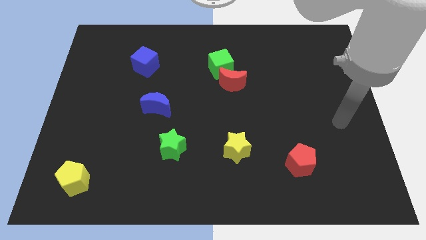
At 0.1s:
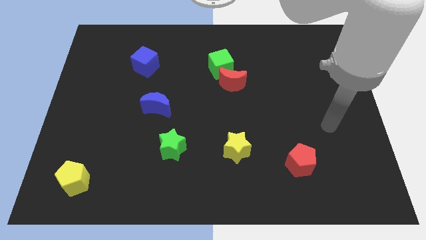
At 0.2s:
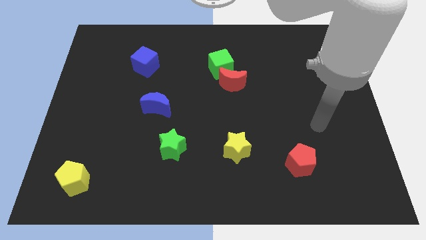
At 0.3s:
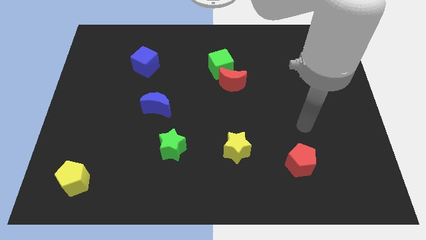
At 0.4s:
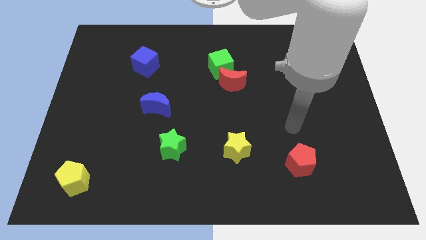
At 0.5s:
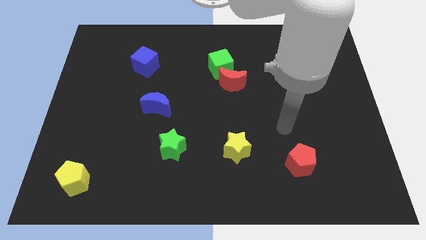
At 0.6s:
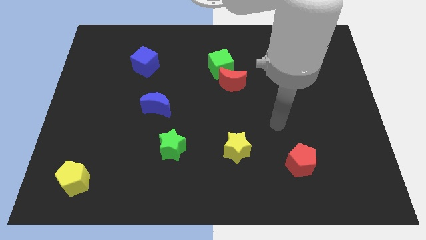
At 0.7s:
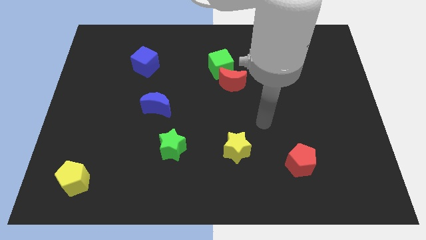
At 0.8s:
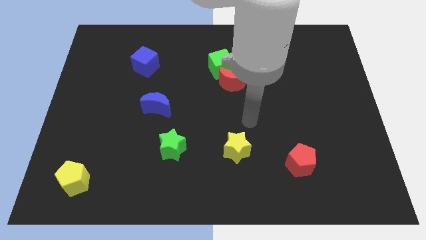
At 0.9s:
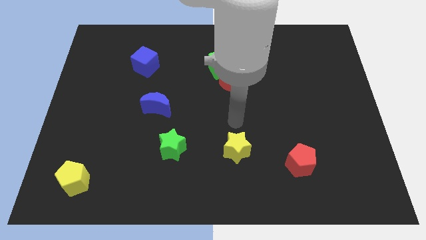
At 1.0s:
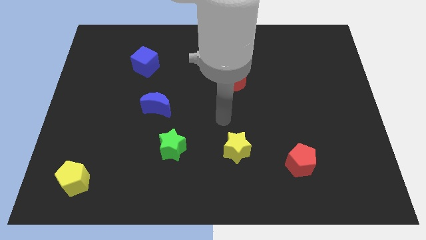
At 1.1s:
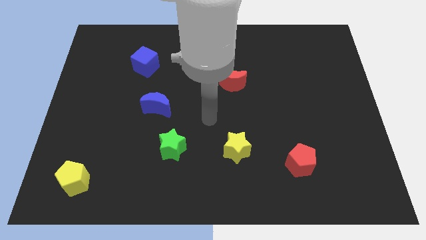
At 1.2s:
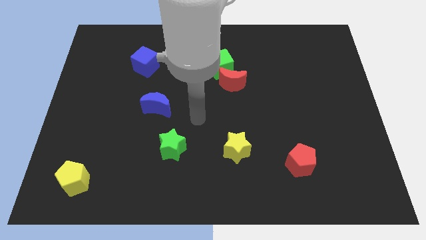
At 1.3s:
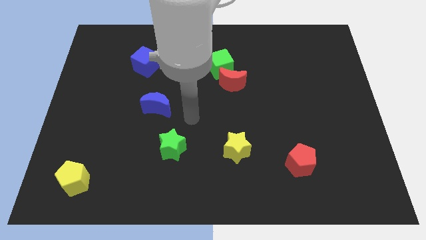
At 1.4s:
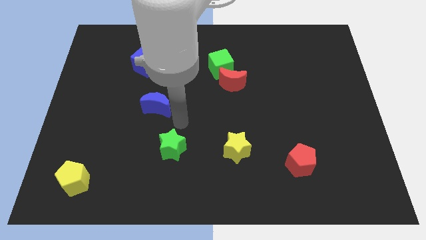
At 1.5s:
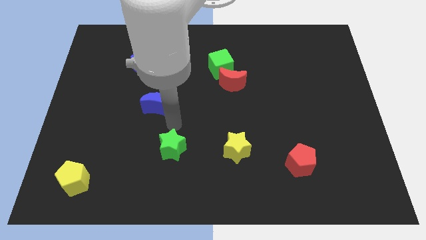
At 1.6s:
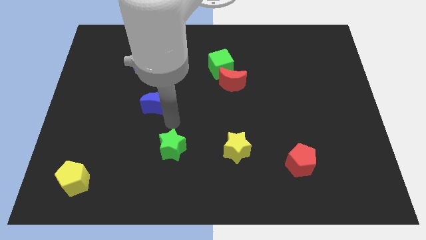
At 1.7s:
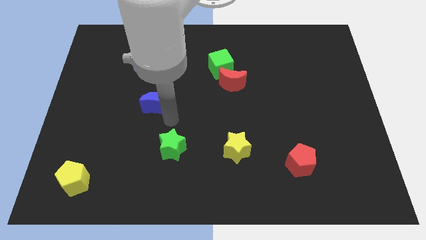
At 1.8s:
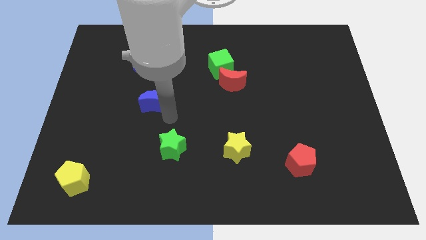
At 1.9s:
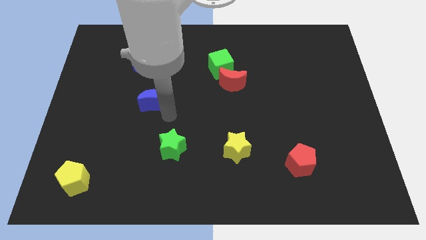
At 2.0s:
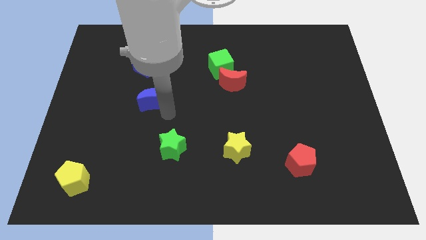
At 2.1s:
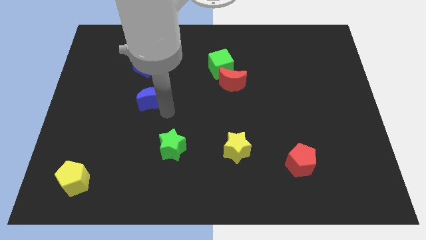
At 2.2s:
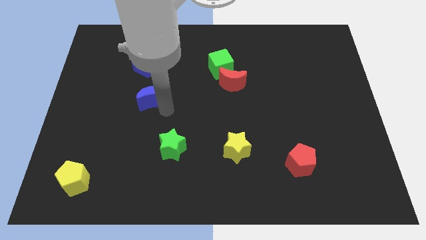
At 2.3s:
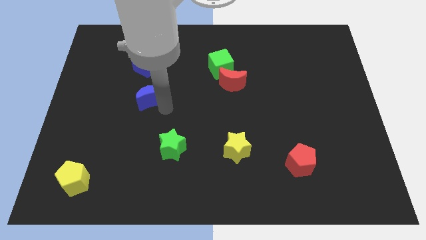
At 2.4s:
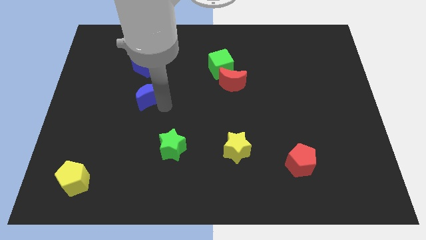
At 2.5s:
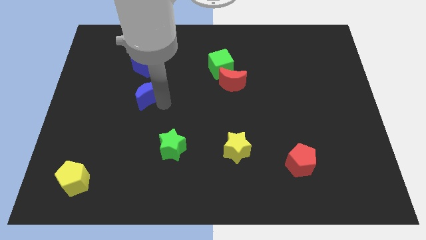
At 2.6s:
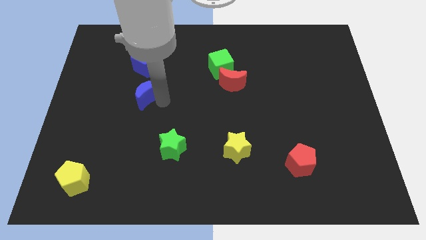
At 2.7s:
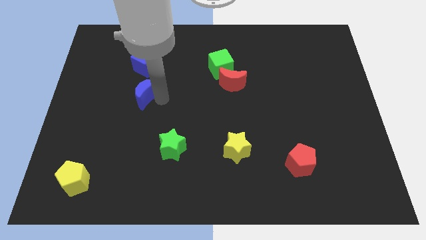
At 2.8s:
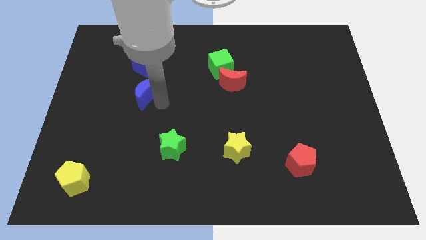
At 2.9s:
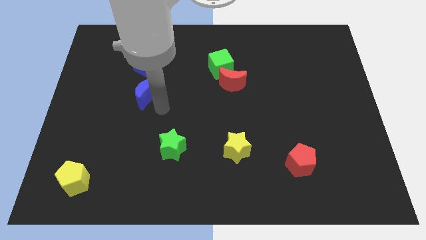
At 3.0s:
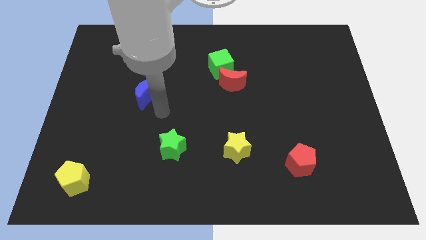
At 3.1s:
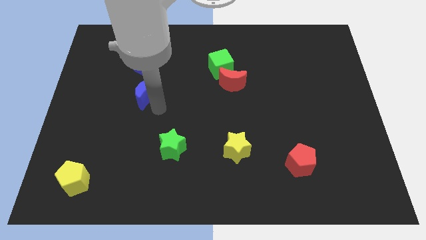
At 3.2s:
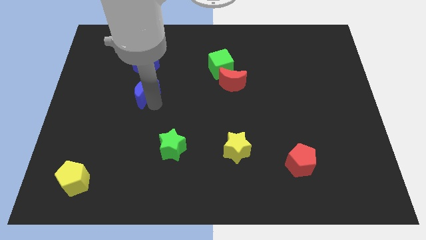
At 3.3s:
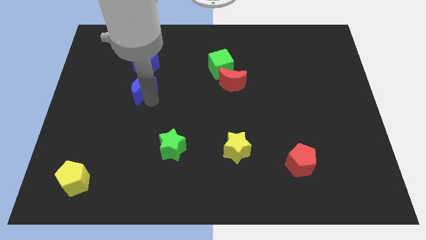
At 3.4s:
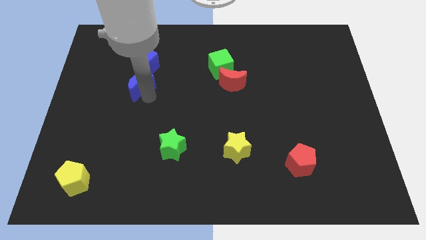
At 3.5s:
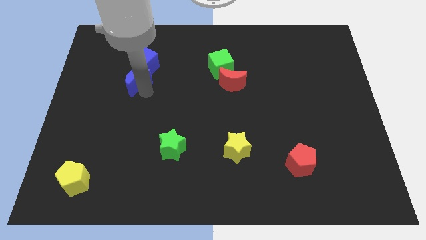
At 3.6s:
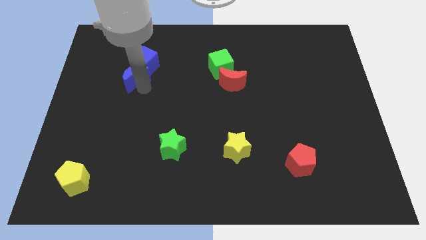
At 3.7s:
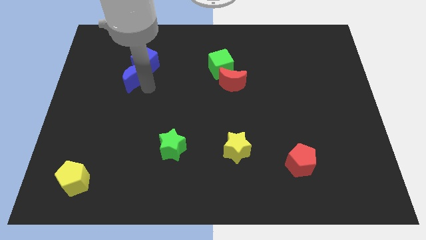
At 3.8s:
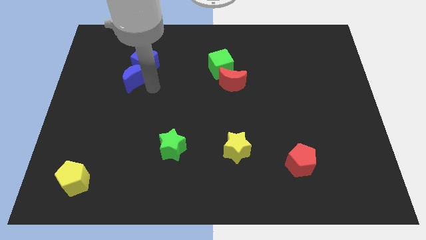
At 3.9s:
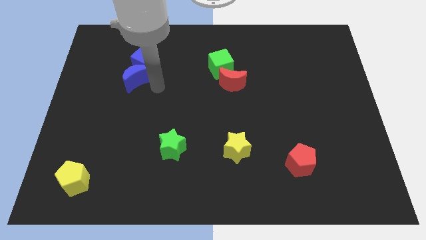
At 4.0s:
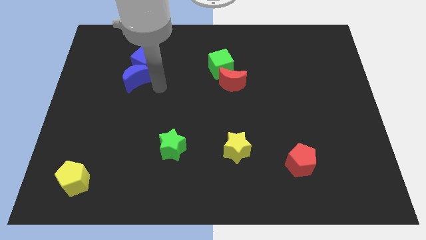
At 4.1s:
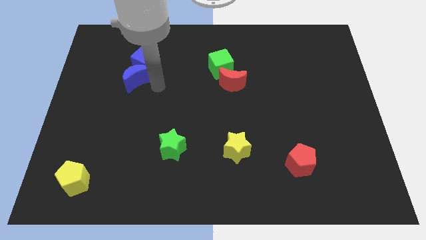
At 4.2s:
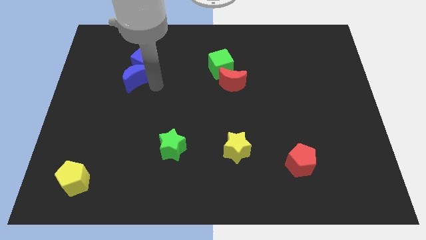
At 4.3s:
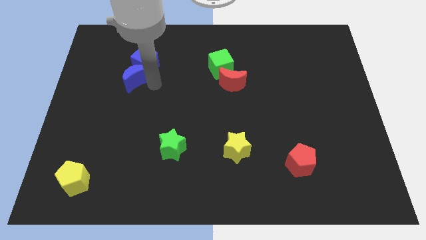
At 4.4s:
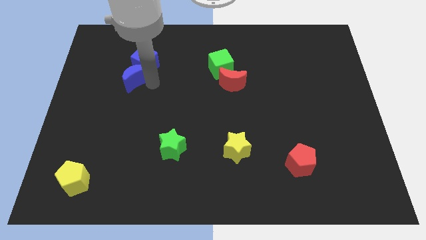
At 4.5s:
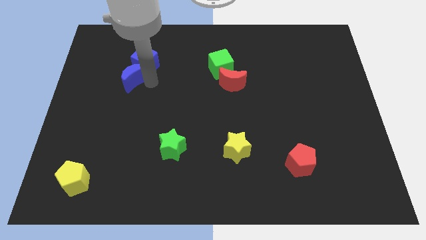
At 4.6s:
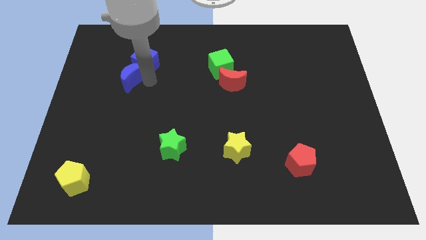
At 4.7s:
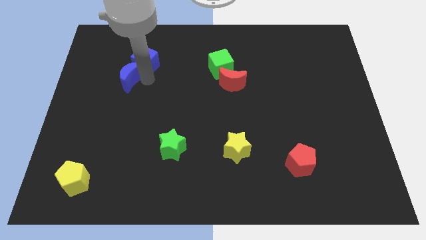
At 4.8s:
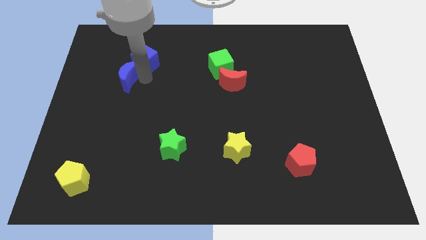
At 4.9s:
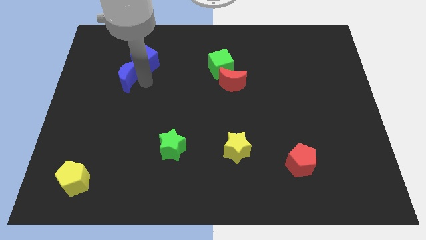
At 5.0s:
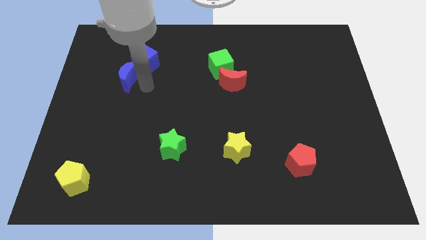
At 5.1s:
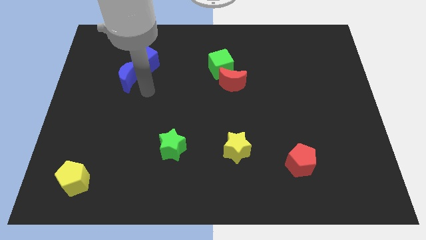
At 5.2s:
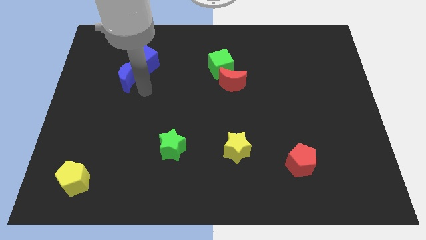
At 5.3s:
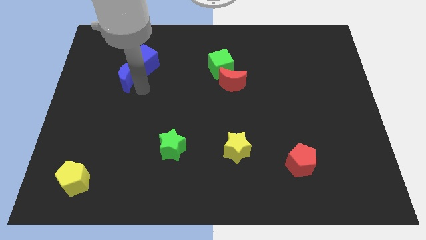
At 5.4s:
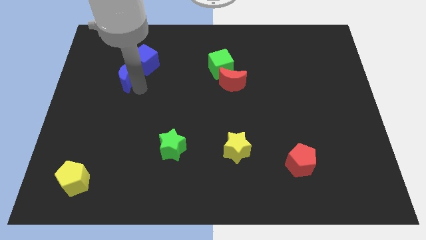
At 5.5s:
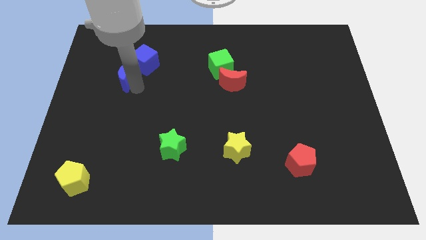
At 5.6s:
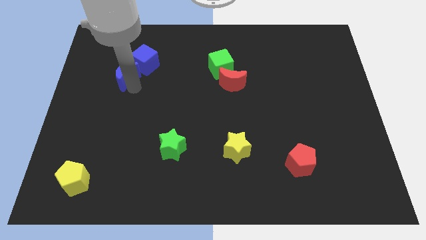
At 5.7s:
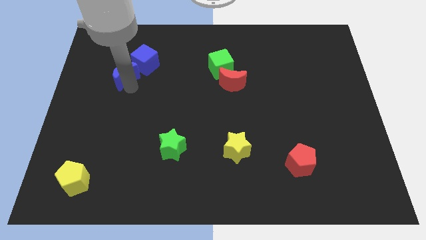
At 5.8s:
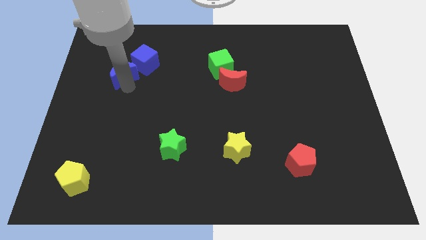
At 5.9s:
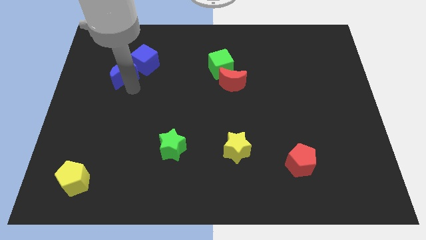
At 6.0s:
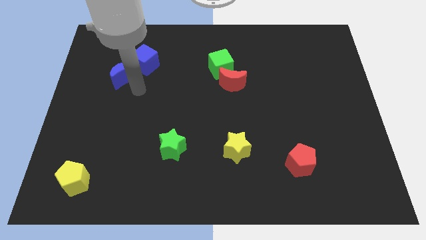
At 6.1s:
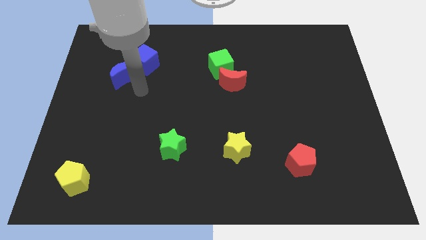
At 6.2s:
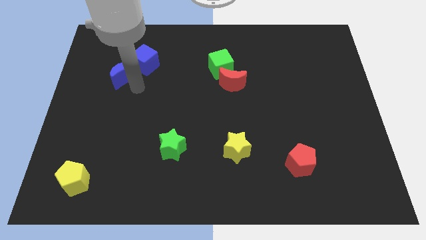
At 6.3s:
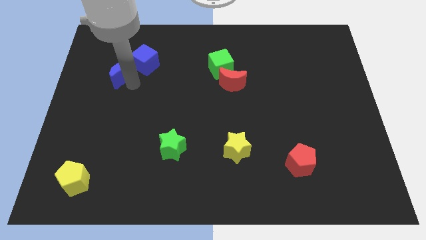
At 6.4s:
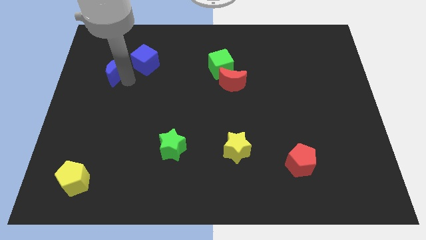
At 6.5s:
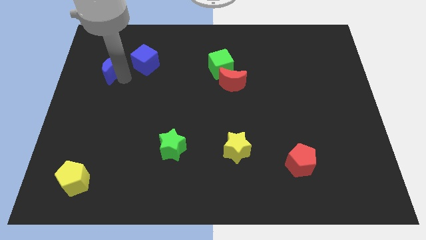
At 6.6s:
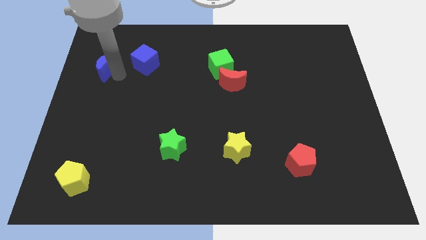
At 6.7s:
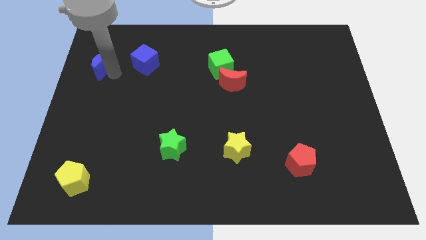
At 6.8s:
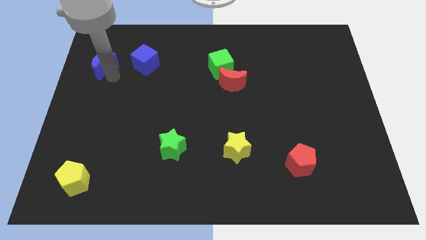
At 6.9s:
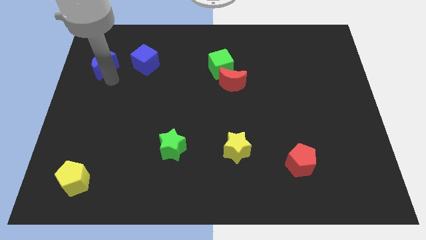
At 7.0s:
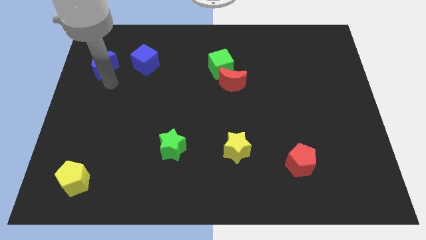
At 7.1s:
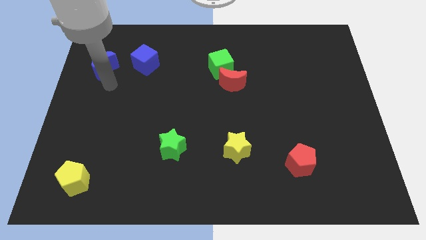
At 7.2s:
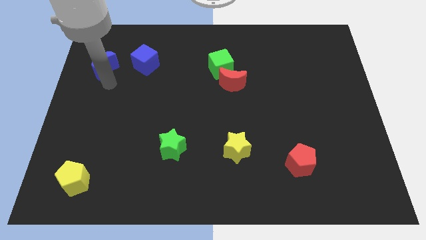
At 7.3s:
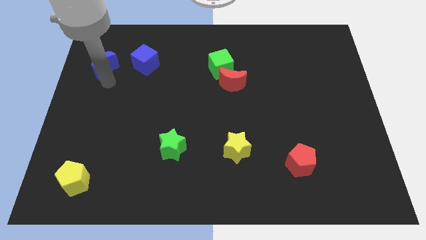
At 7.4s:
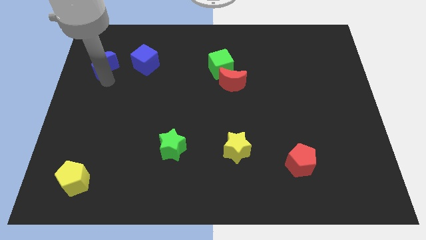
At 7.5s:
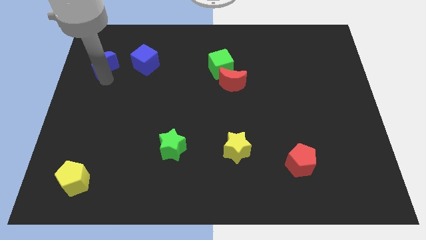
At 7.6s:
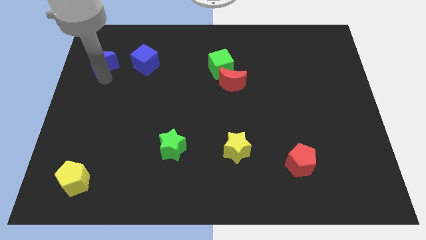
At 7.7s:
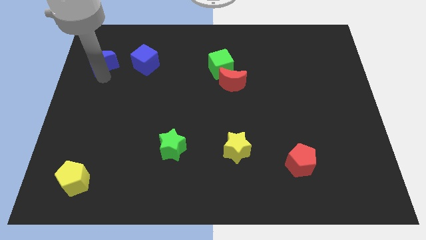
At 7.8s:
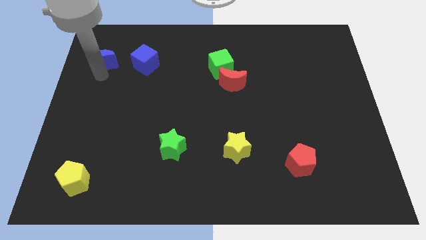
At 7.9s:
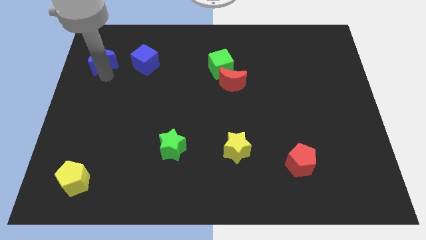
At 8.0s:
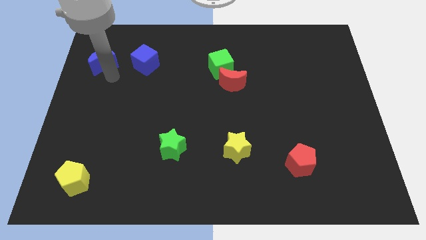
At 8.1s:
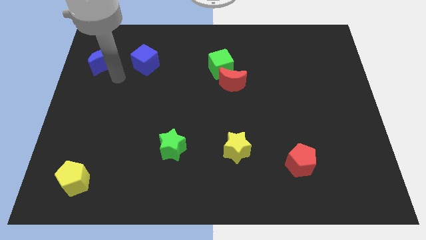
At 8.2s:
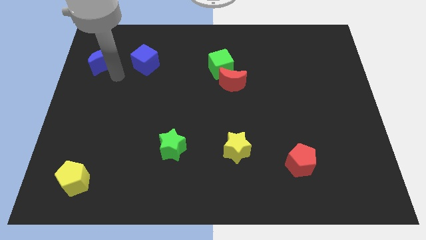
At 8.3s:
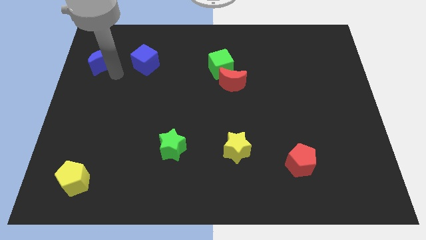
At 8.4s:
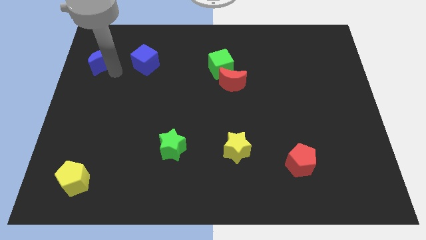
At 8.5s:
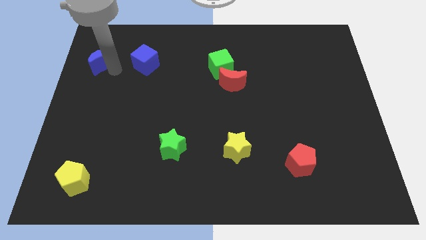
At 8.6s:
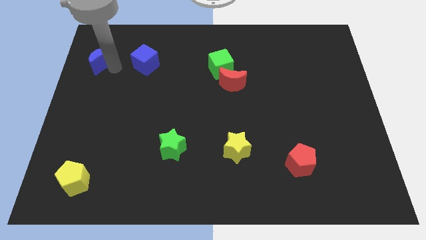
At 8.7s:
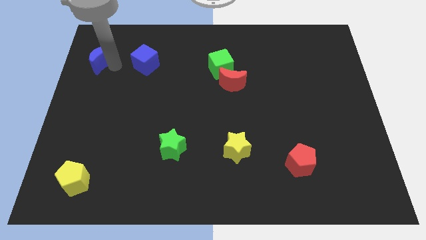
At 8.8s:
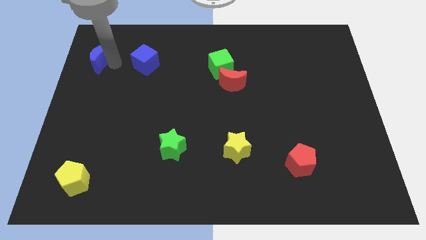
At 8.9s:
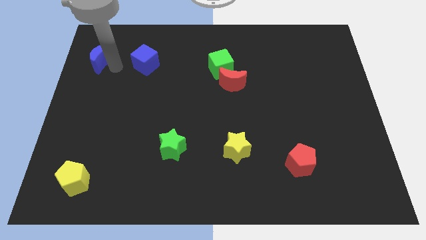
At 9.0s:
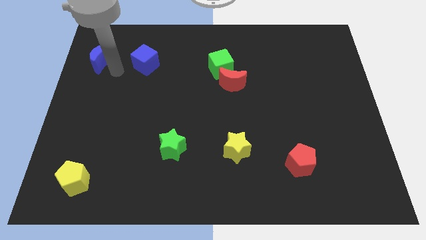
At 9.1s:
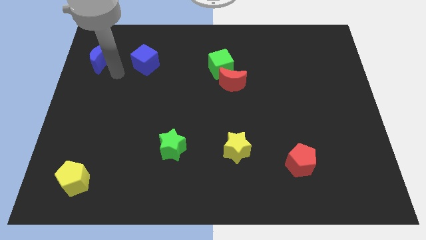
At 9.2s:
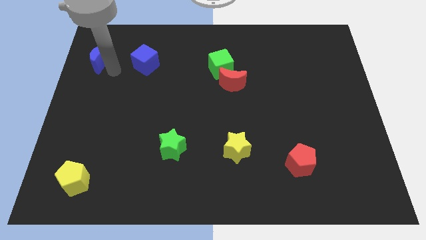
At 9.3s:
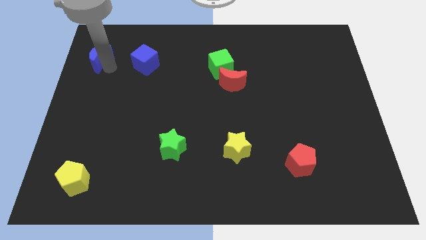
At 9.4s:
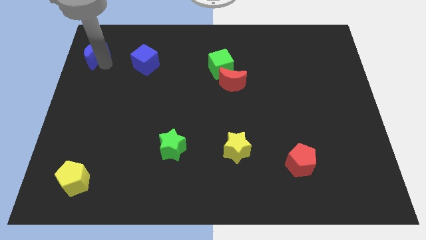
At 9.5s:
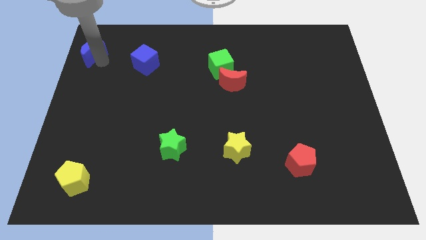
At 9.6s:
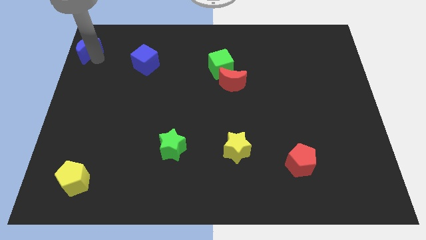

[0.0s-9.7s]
move the blue moon to the top left of the board
